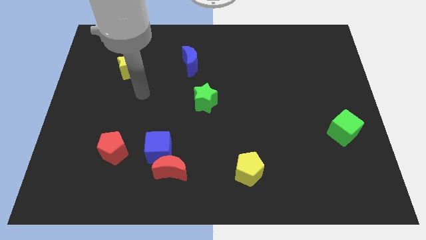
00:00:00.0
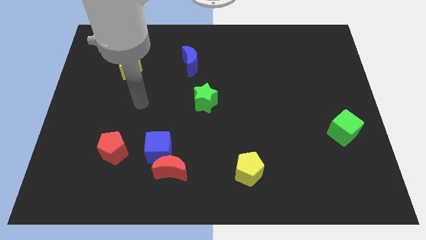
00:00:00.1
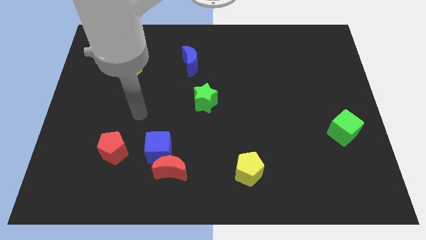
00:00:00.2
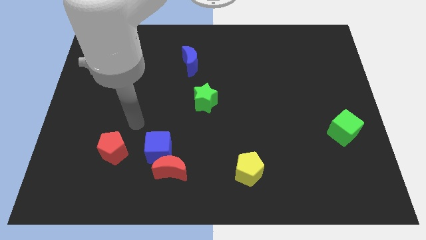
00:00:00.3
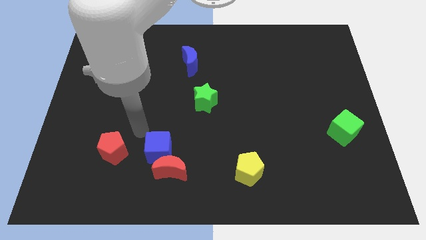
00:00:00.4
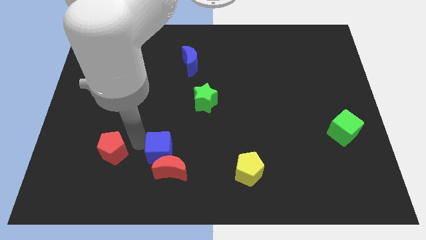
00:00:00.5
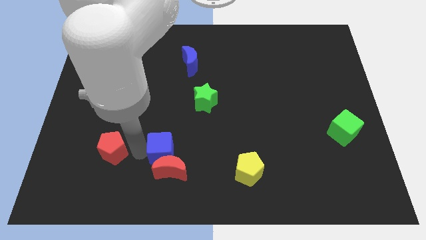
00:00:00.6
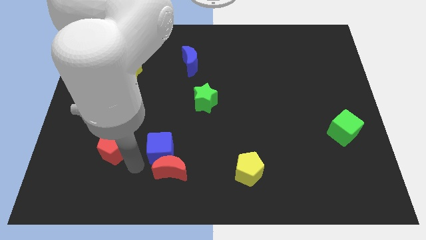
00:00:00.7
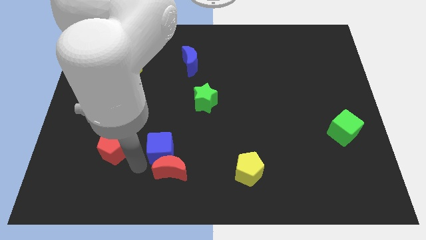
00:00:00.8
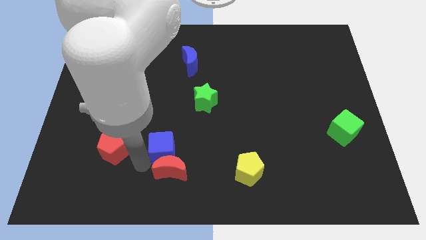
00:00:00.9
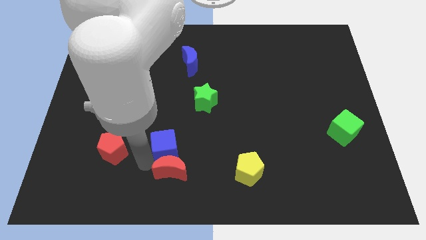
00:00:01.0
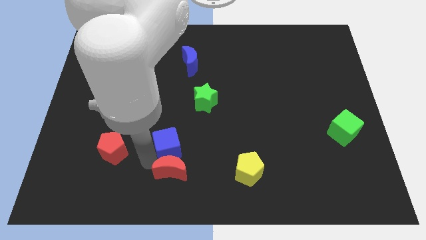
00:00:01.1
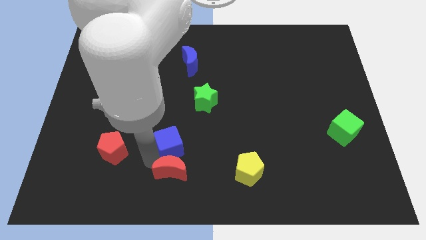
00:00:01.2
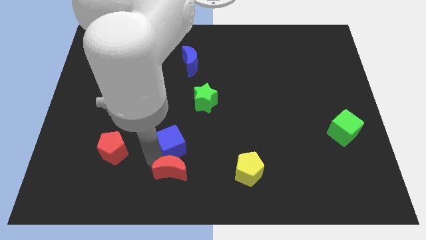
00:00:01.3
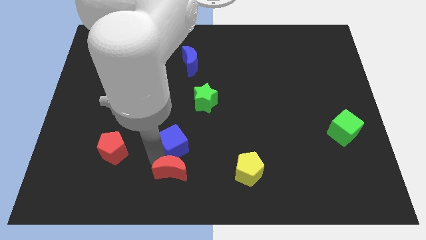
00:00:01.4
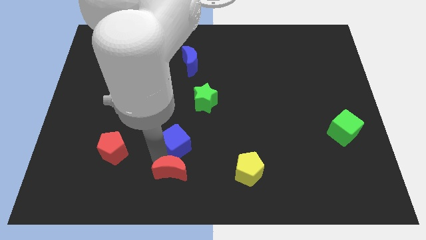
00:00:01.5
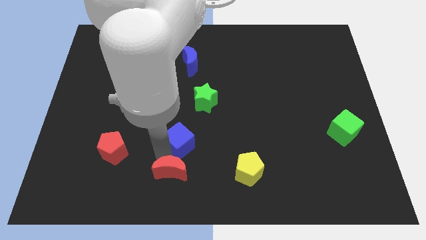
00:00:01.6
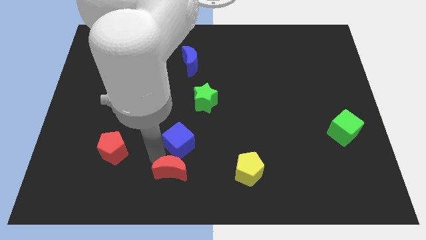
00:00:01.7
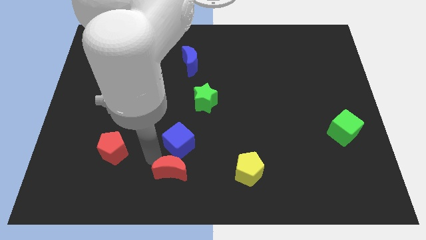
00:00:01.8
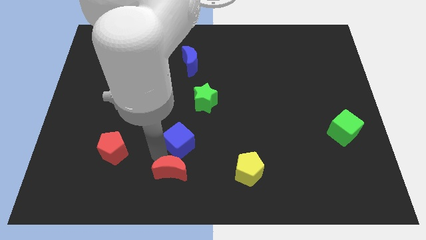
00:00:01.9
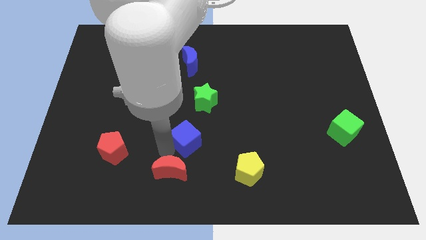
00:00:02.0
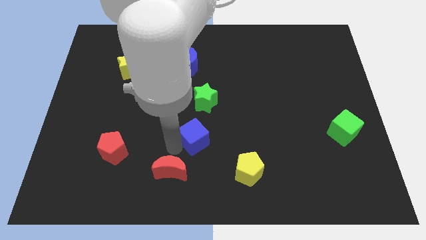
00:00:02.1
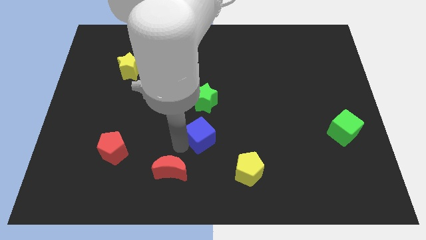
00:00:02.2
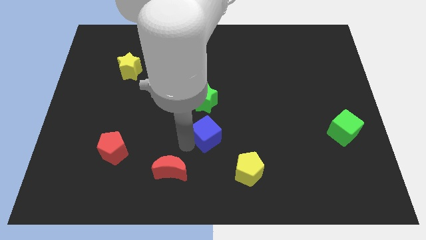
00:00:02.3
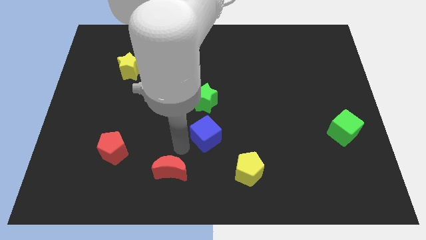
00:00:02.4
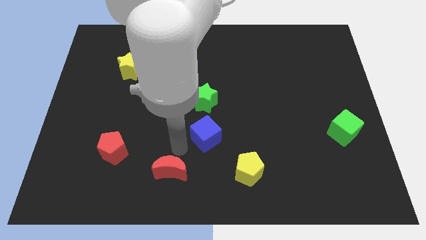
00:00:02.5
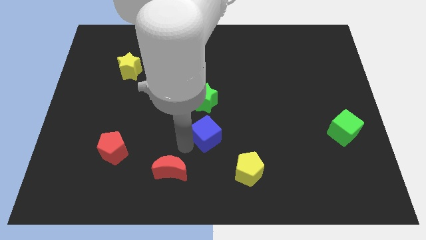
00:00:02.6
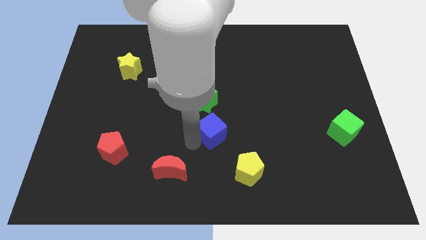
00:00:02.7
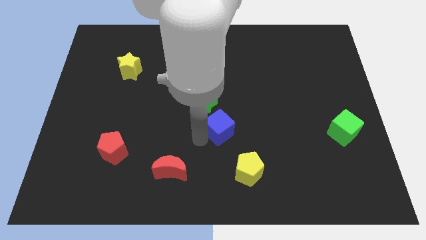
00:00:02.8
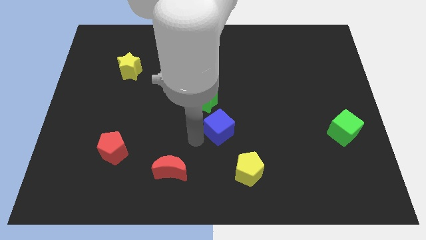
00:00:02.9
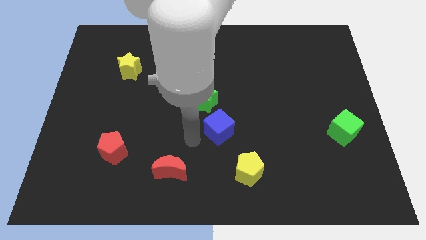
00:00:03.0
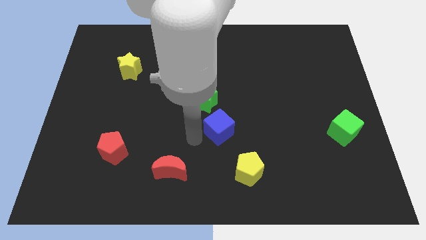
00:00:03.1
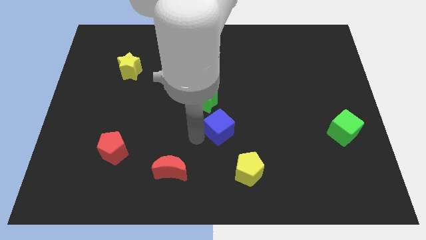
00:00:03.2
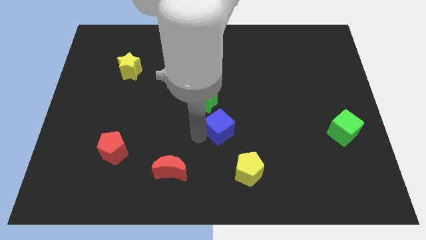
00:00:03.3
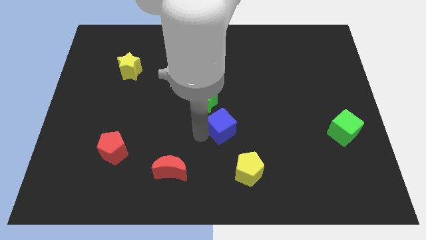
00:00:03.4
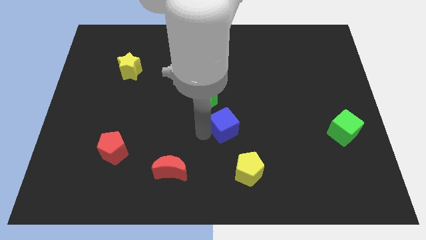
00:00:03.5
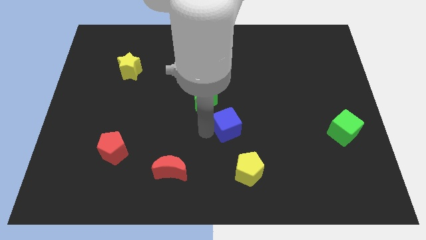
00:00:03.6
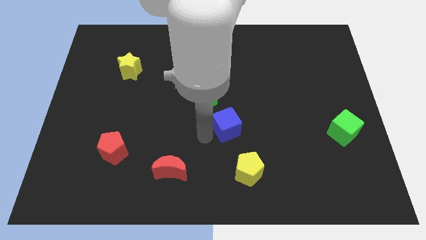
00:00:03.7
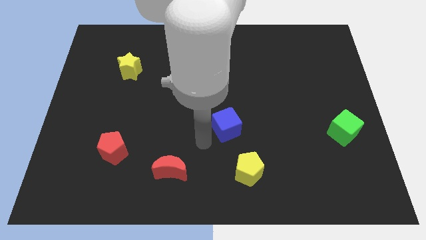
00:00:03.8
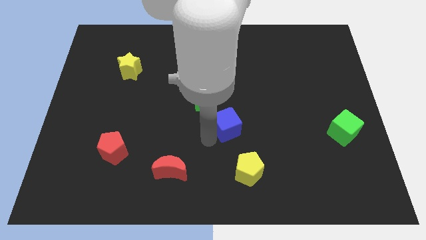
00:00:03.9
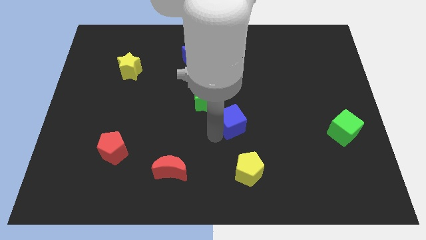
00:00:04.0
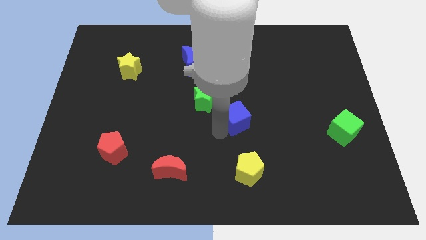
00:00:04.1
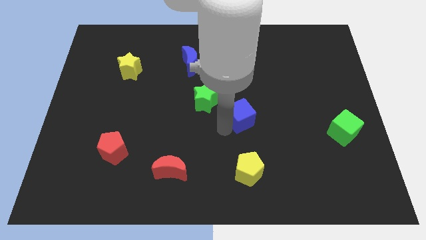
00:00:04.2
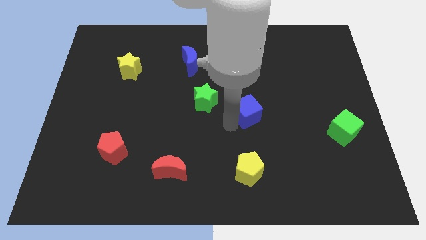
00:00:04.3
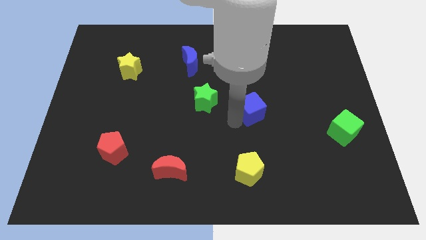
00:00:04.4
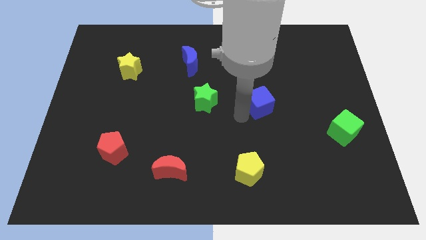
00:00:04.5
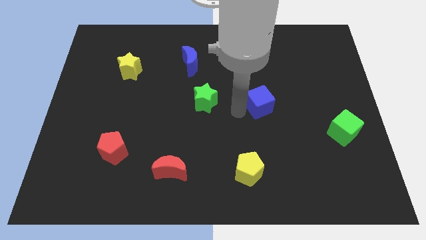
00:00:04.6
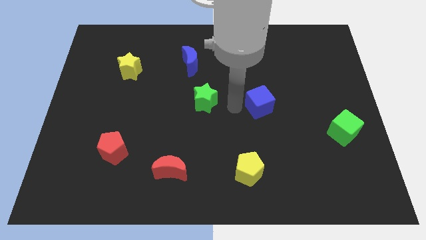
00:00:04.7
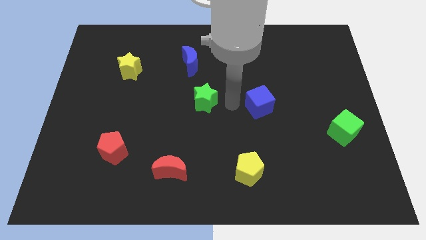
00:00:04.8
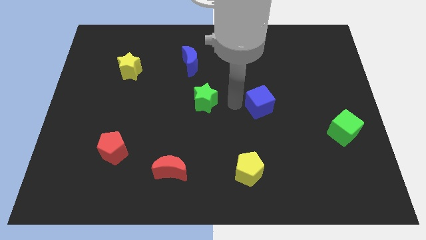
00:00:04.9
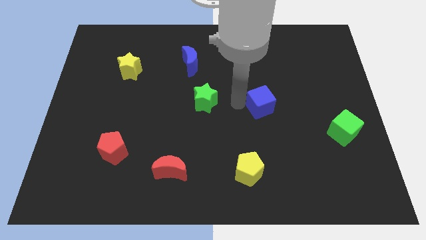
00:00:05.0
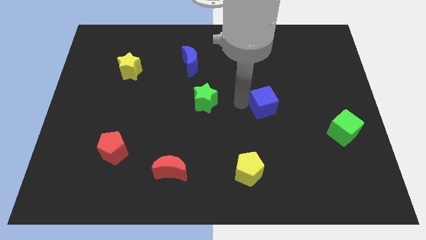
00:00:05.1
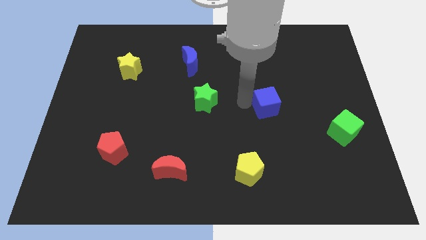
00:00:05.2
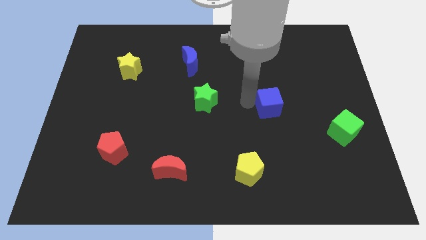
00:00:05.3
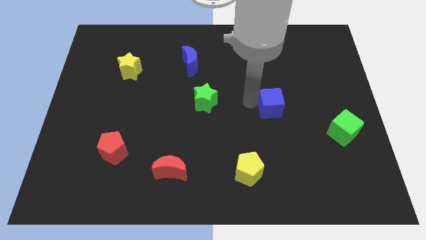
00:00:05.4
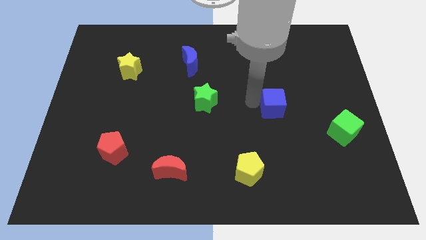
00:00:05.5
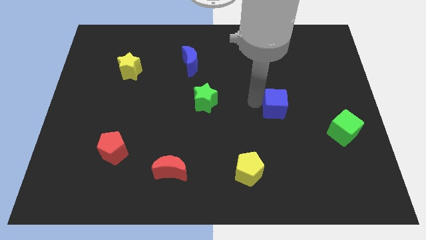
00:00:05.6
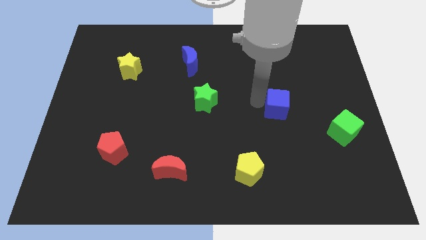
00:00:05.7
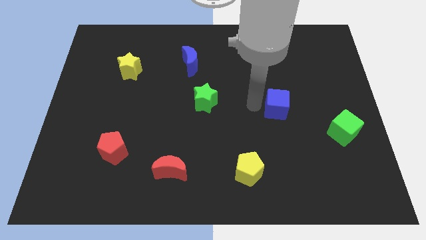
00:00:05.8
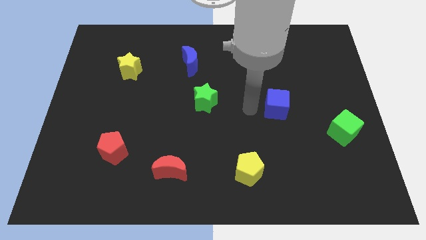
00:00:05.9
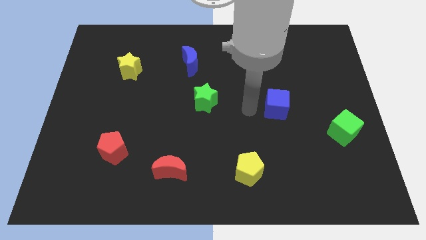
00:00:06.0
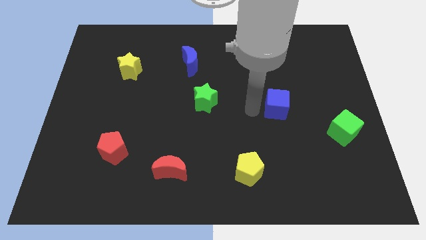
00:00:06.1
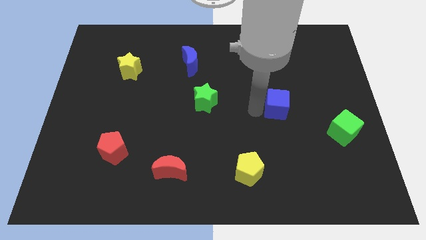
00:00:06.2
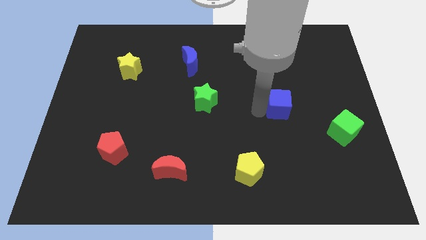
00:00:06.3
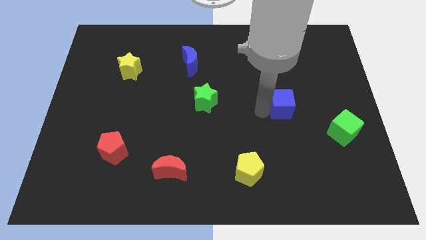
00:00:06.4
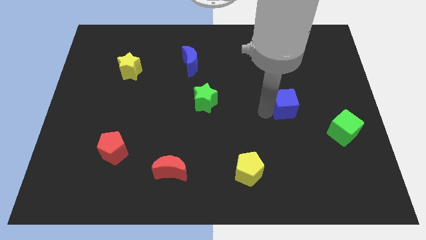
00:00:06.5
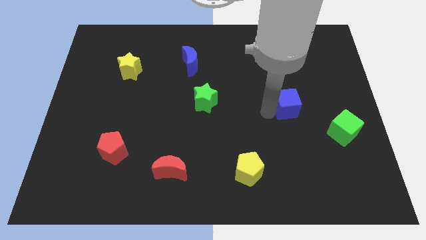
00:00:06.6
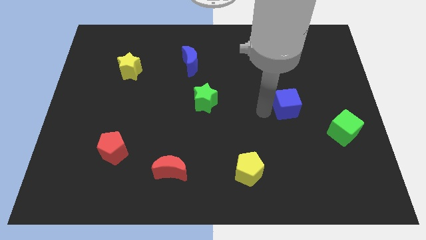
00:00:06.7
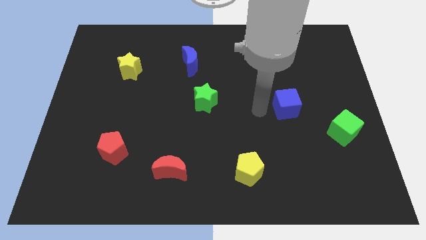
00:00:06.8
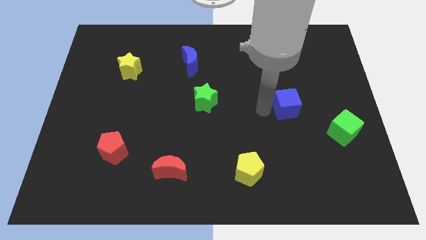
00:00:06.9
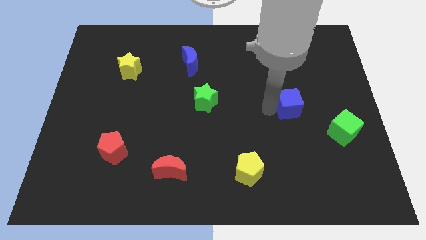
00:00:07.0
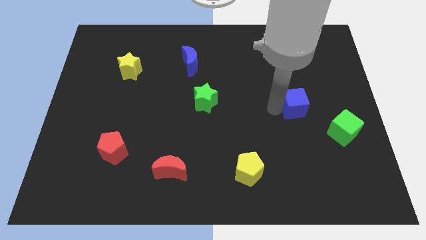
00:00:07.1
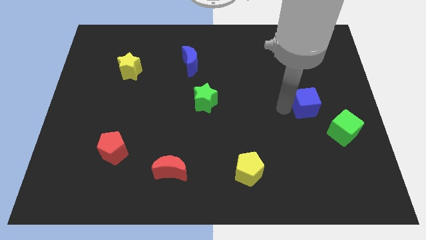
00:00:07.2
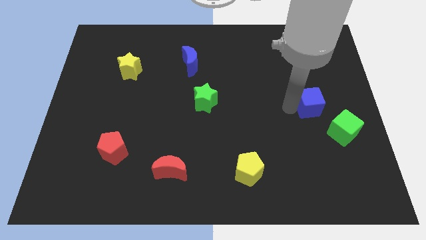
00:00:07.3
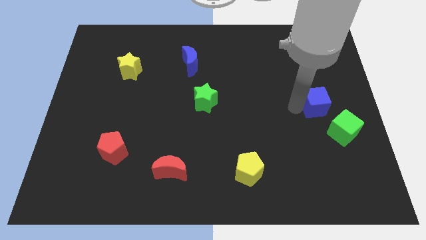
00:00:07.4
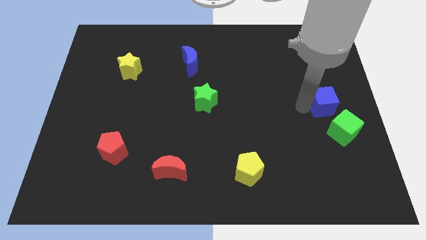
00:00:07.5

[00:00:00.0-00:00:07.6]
slide the blue cube to the center right
